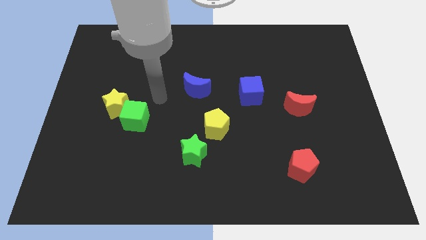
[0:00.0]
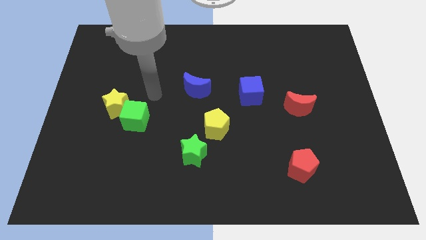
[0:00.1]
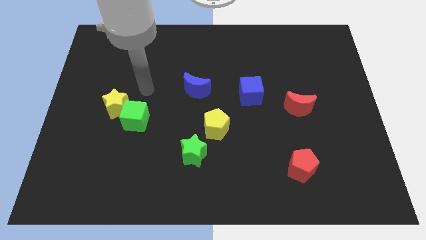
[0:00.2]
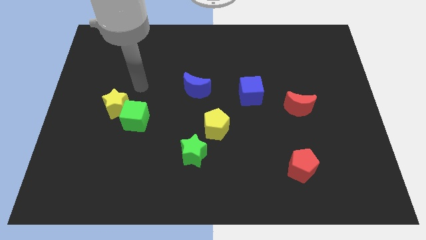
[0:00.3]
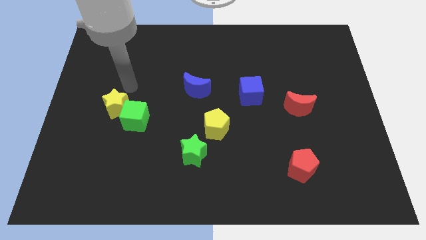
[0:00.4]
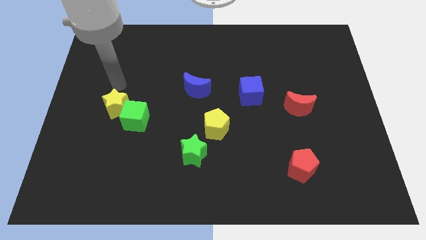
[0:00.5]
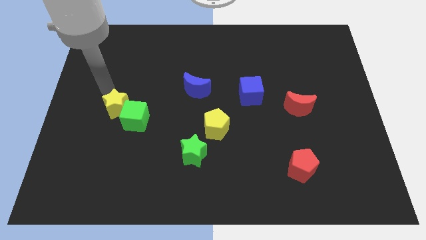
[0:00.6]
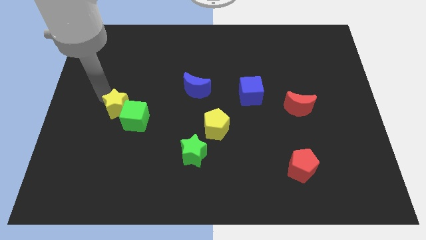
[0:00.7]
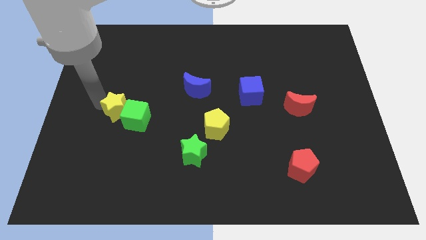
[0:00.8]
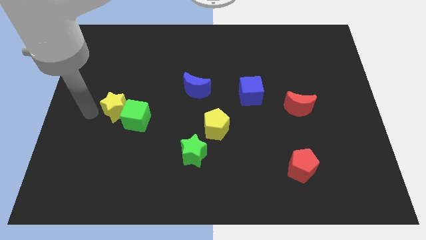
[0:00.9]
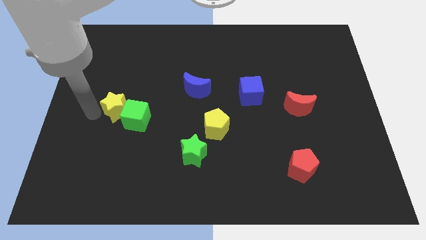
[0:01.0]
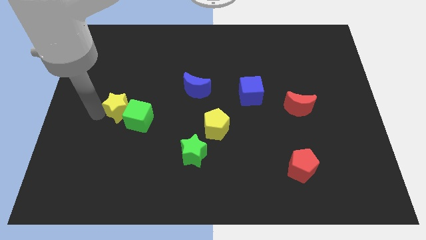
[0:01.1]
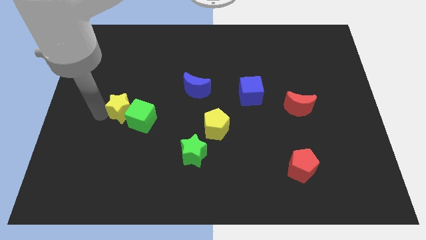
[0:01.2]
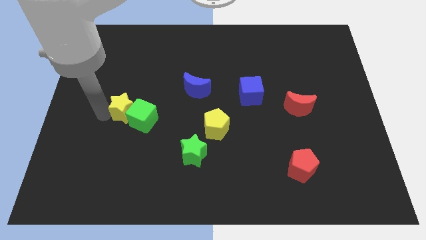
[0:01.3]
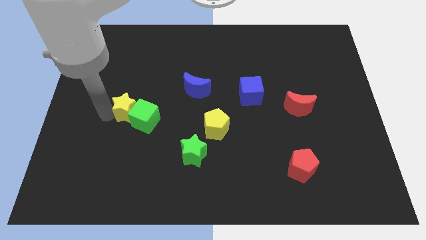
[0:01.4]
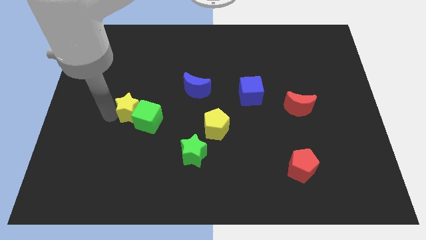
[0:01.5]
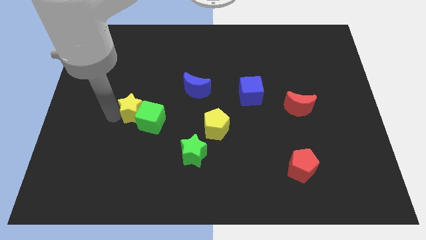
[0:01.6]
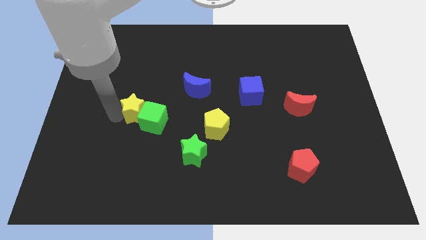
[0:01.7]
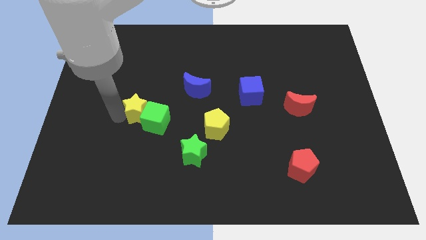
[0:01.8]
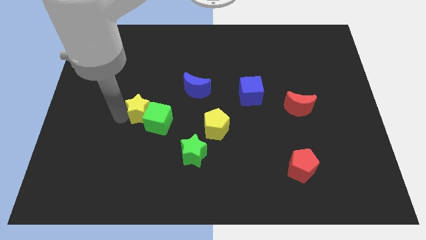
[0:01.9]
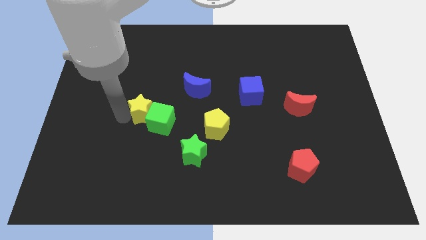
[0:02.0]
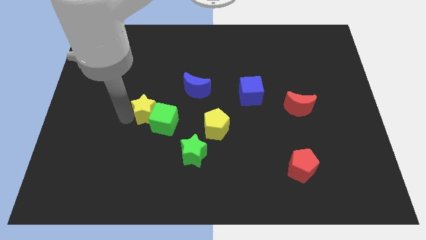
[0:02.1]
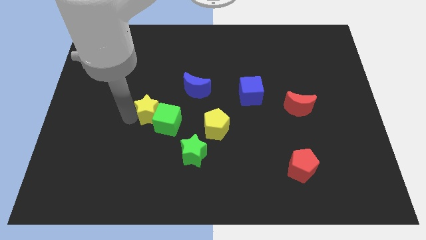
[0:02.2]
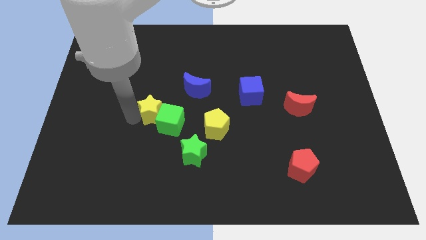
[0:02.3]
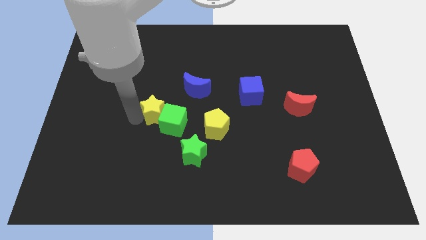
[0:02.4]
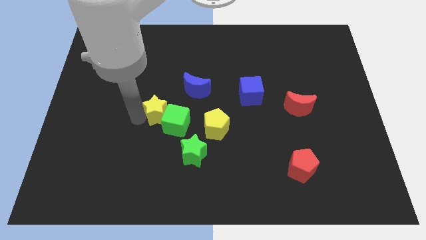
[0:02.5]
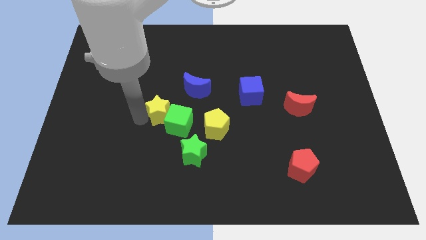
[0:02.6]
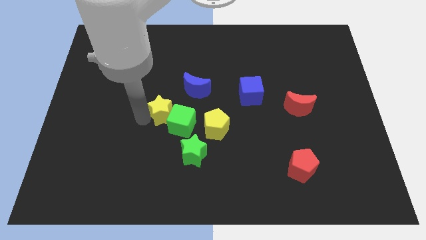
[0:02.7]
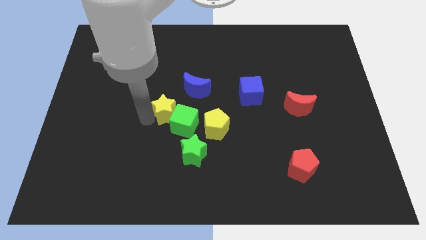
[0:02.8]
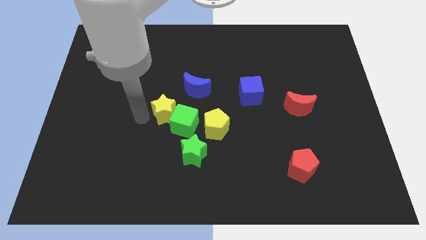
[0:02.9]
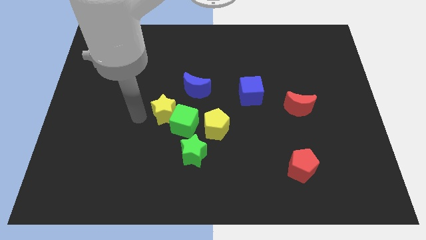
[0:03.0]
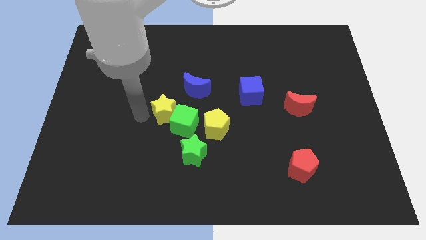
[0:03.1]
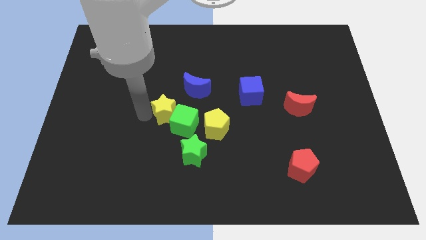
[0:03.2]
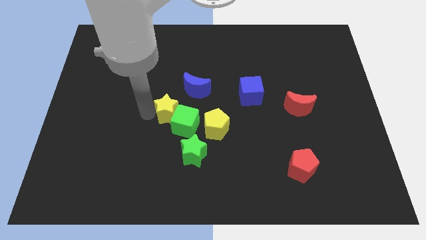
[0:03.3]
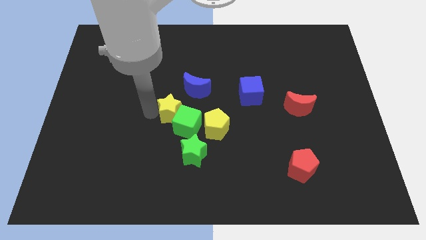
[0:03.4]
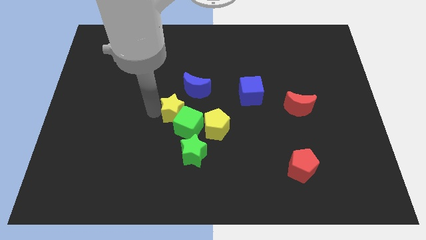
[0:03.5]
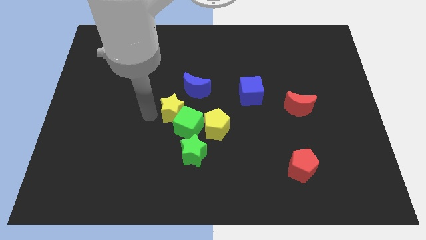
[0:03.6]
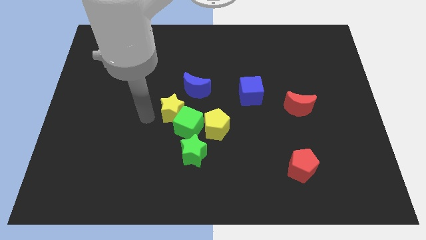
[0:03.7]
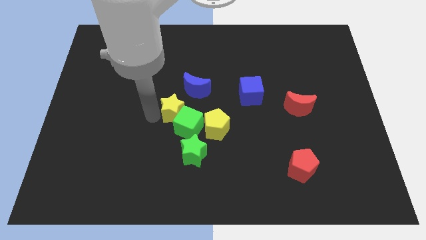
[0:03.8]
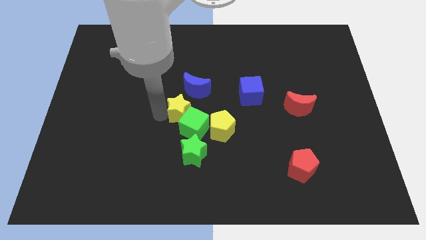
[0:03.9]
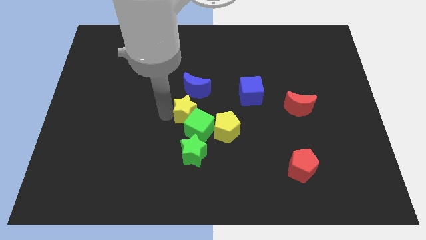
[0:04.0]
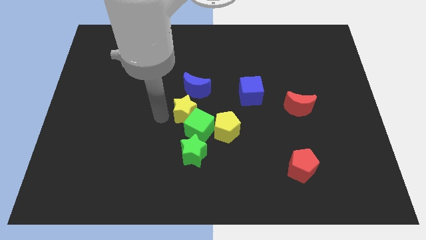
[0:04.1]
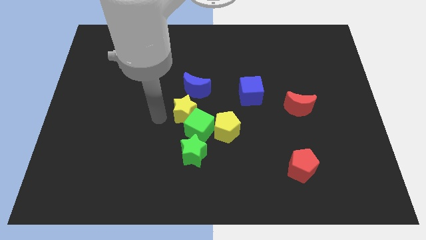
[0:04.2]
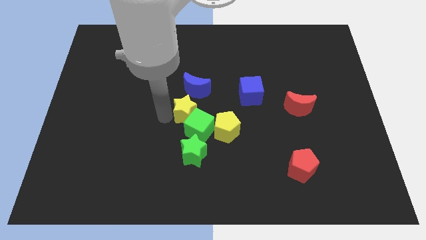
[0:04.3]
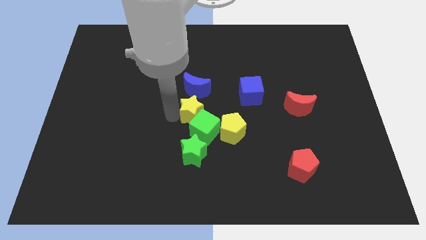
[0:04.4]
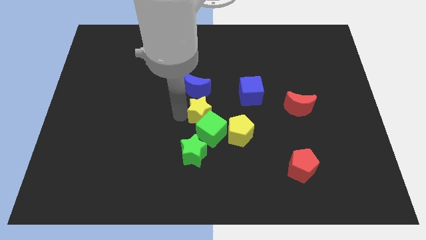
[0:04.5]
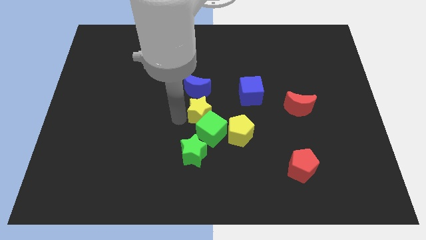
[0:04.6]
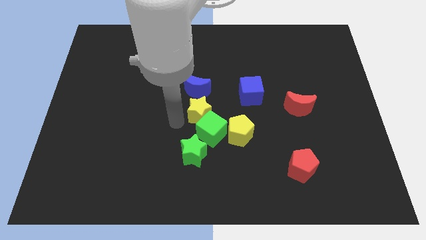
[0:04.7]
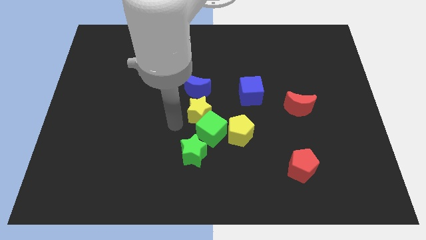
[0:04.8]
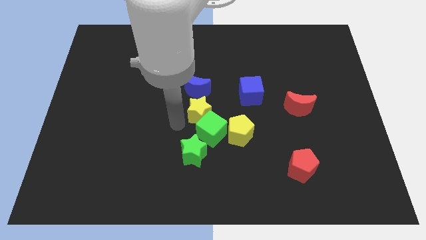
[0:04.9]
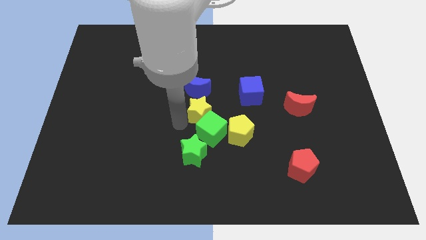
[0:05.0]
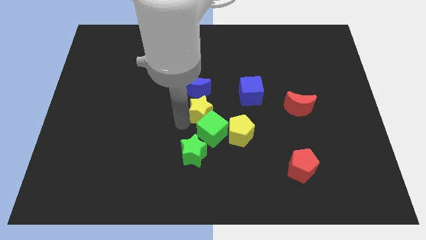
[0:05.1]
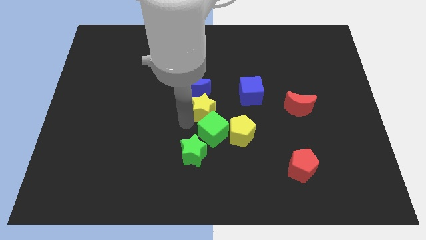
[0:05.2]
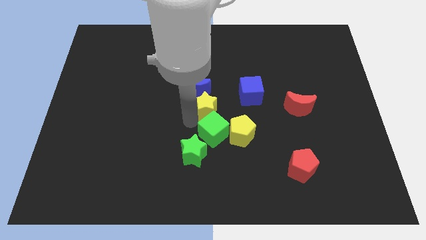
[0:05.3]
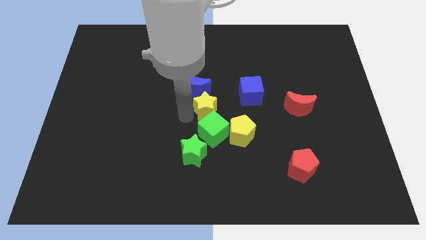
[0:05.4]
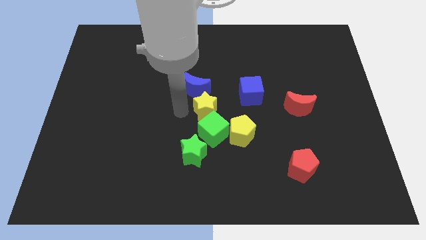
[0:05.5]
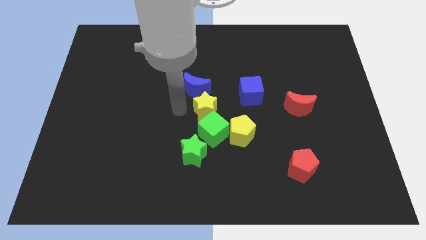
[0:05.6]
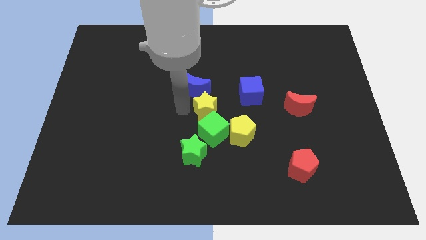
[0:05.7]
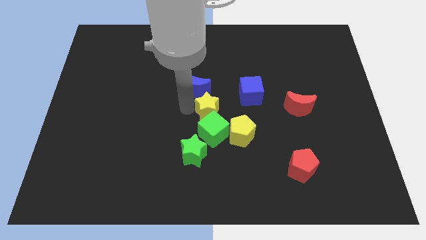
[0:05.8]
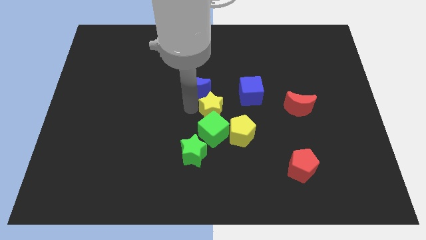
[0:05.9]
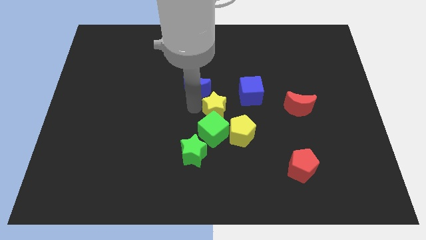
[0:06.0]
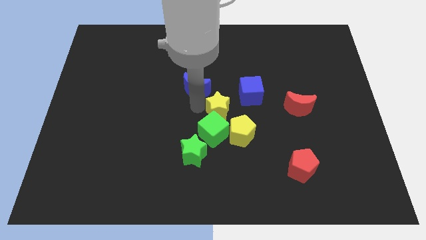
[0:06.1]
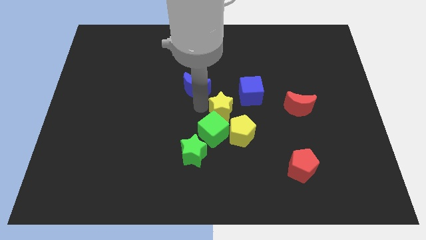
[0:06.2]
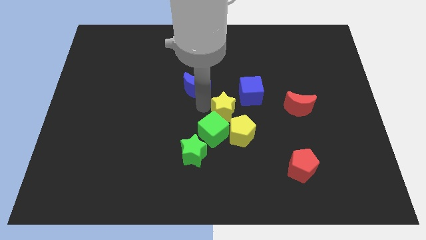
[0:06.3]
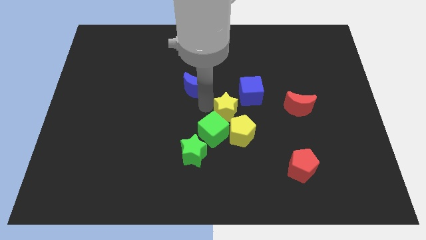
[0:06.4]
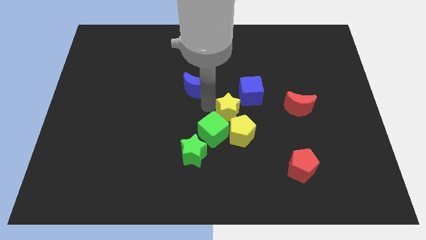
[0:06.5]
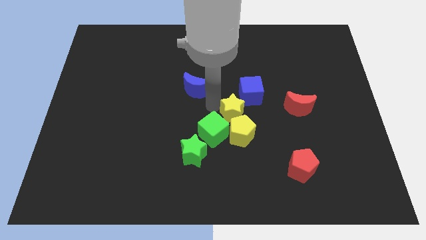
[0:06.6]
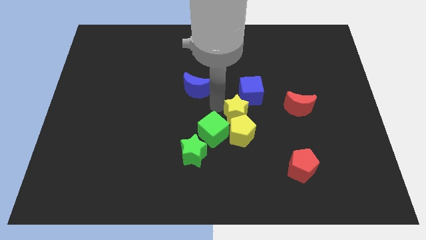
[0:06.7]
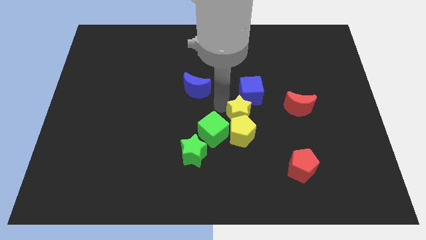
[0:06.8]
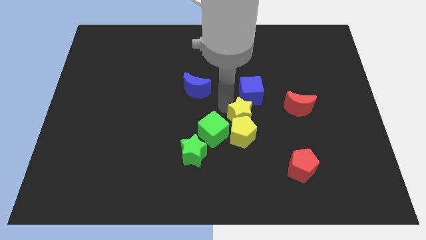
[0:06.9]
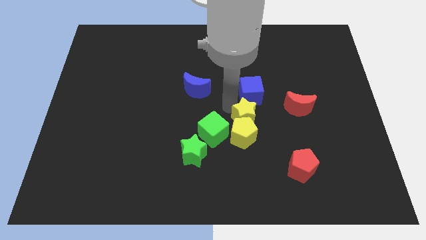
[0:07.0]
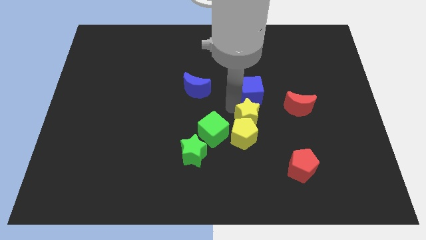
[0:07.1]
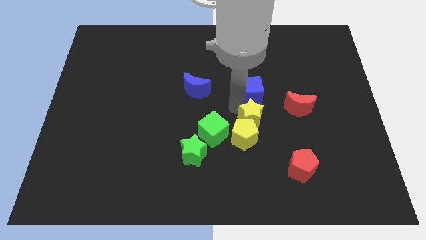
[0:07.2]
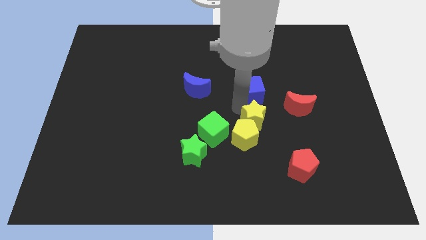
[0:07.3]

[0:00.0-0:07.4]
put the yellow star diagonally down and to the right of the blue cube
